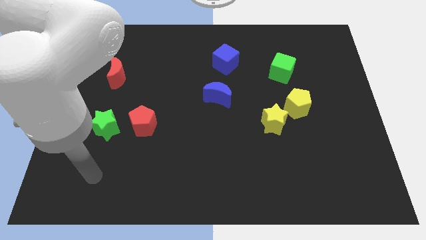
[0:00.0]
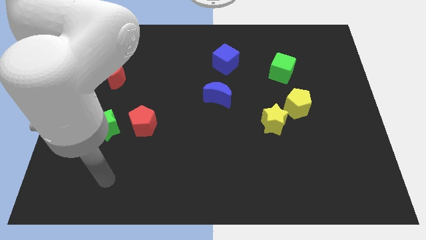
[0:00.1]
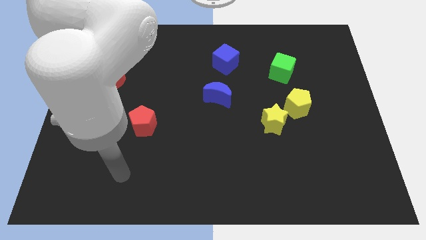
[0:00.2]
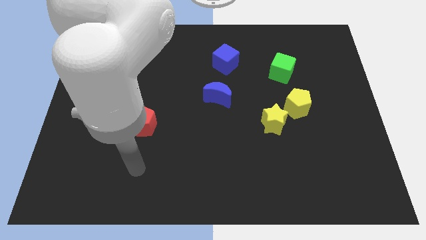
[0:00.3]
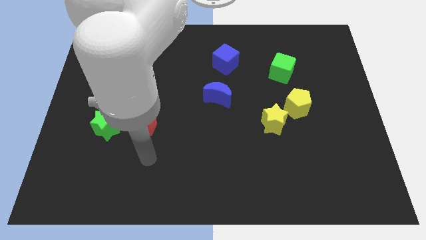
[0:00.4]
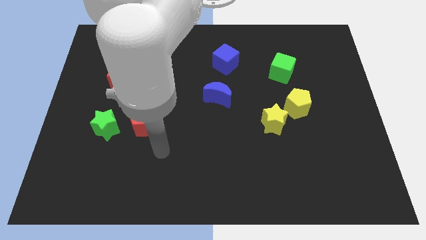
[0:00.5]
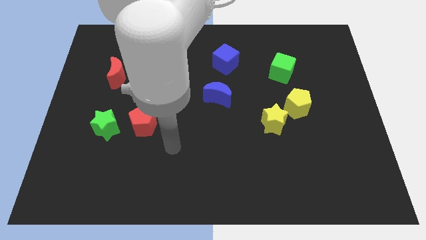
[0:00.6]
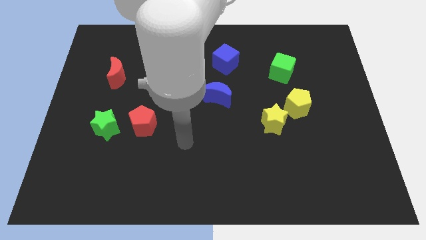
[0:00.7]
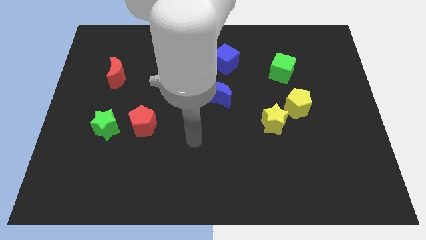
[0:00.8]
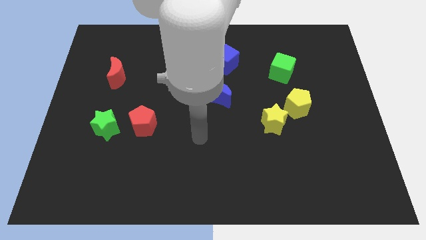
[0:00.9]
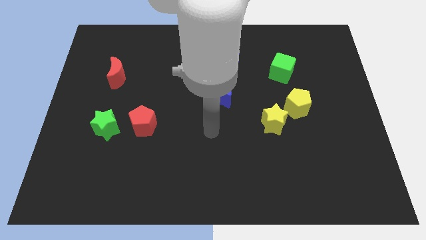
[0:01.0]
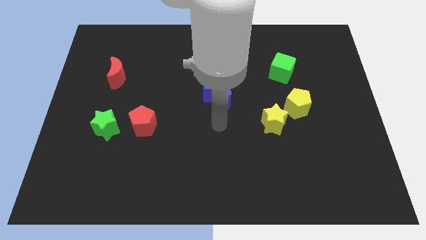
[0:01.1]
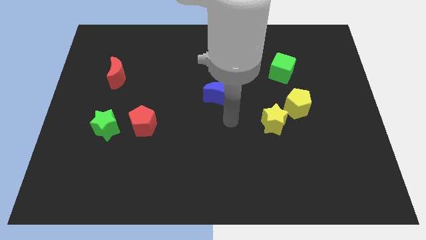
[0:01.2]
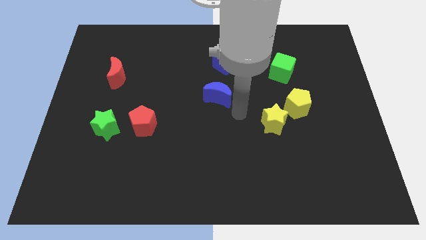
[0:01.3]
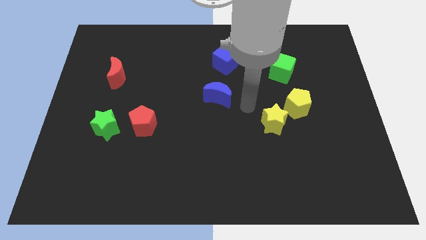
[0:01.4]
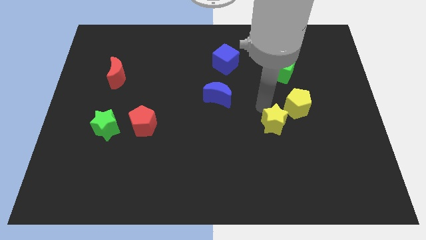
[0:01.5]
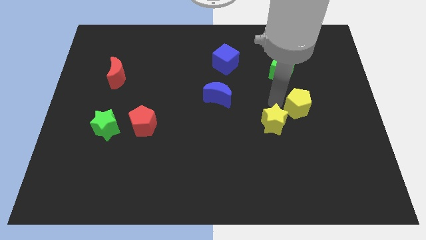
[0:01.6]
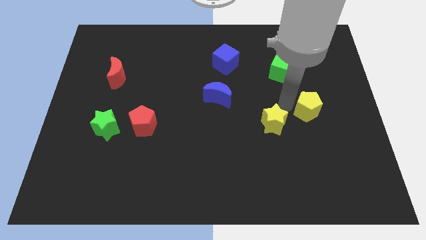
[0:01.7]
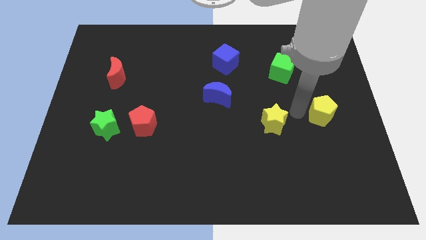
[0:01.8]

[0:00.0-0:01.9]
move the yellow star away from the yellow pentagon

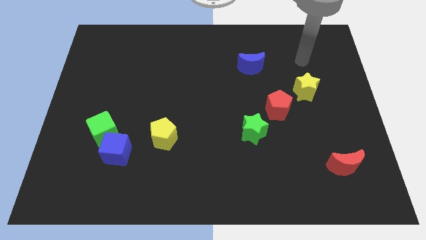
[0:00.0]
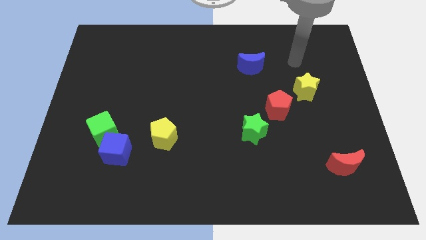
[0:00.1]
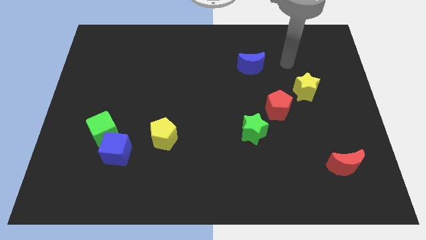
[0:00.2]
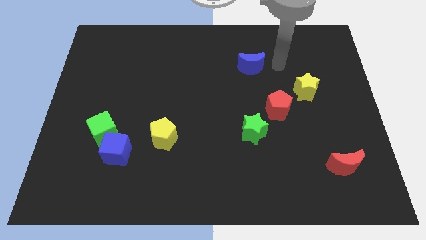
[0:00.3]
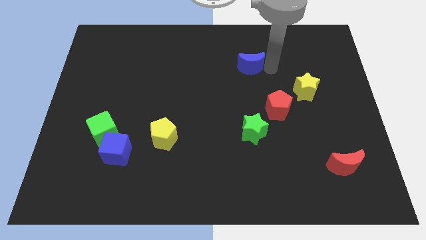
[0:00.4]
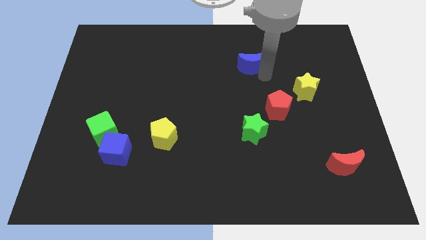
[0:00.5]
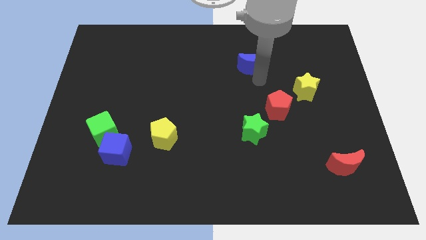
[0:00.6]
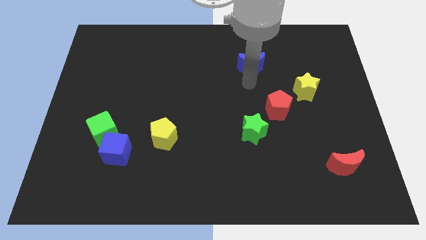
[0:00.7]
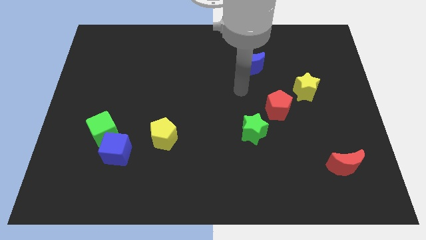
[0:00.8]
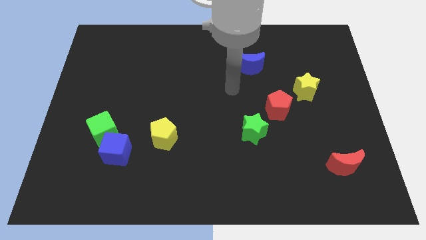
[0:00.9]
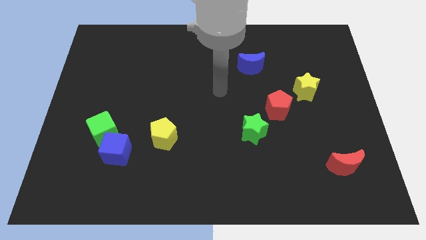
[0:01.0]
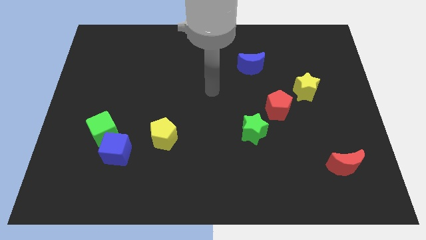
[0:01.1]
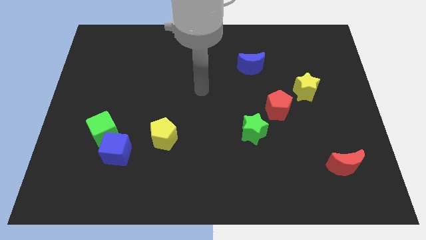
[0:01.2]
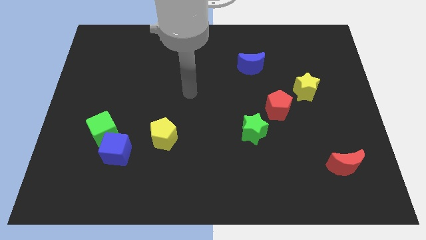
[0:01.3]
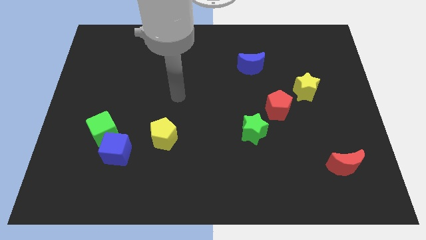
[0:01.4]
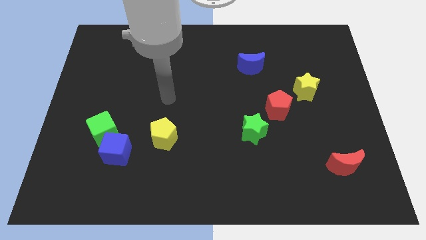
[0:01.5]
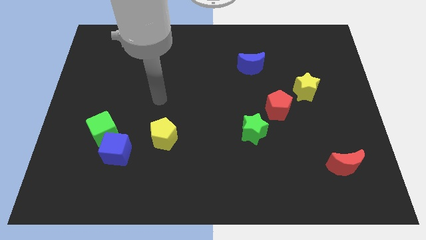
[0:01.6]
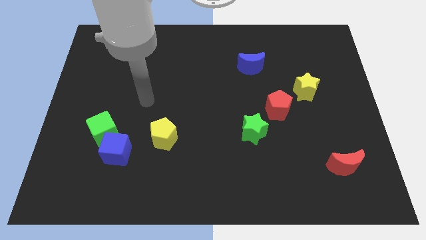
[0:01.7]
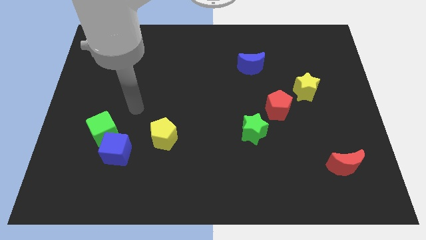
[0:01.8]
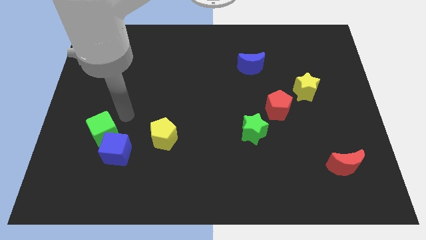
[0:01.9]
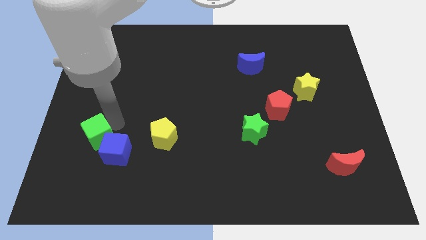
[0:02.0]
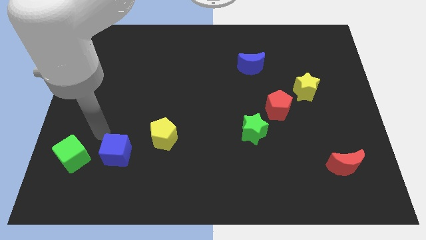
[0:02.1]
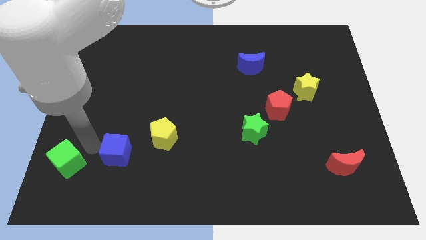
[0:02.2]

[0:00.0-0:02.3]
move the blue cube away from the green cube

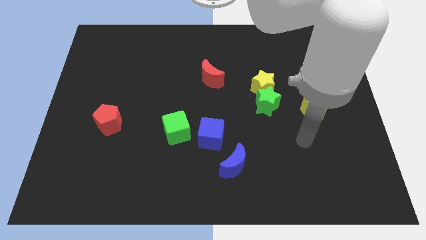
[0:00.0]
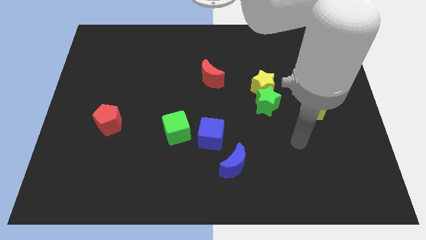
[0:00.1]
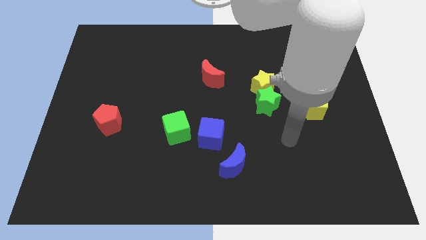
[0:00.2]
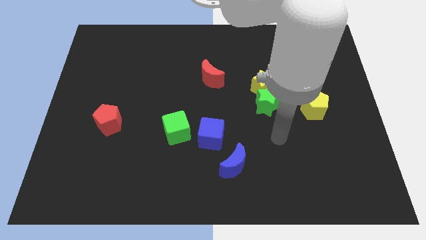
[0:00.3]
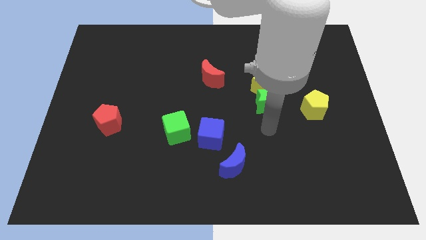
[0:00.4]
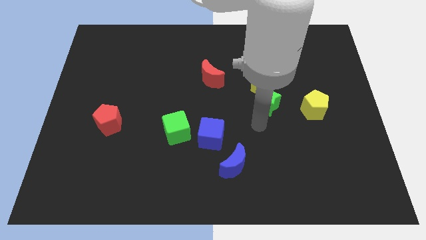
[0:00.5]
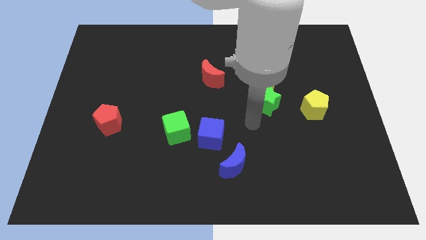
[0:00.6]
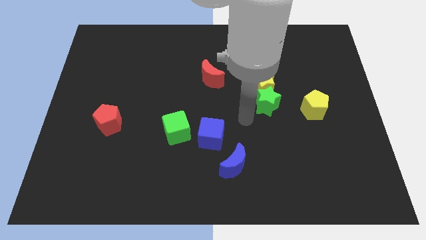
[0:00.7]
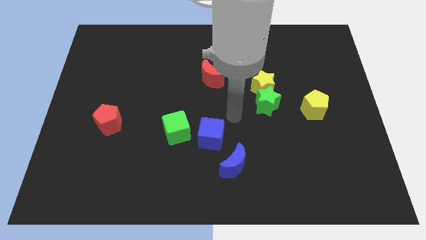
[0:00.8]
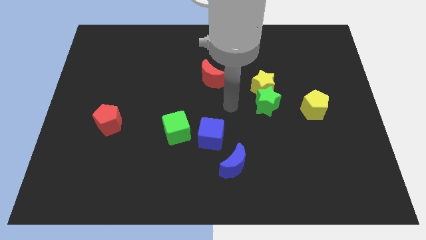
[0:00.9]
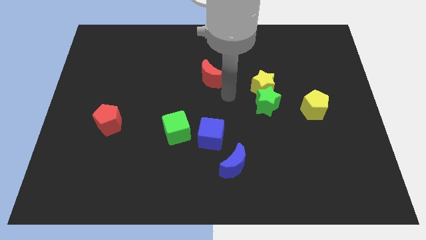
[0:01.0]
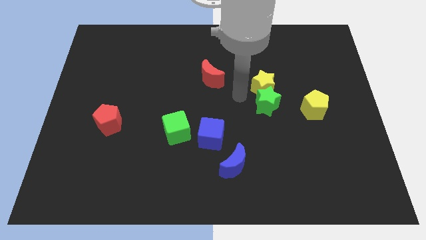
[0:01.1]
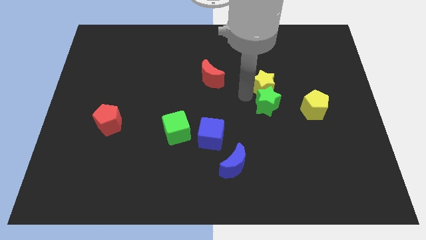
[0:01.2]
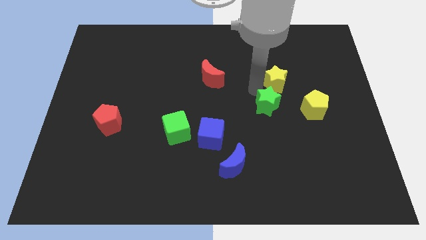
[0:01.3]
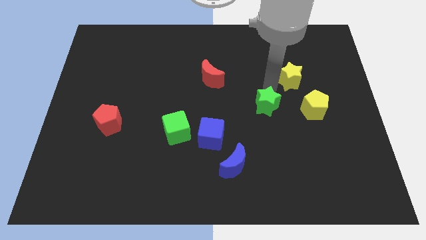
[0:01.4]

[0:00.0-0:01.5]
pull the green star apart from the yellow star

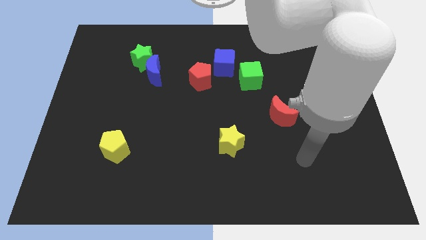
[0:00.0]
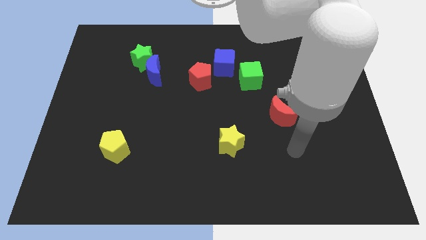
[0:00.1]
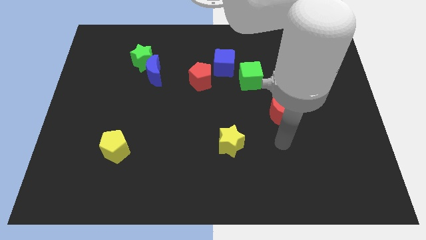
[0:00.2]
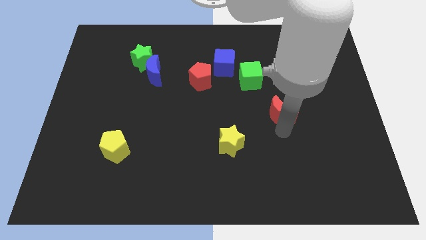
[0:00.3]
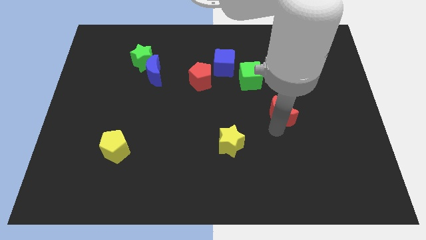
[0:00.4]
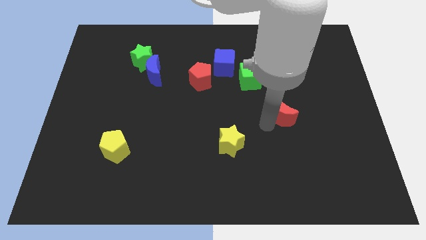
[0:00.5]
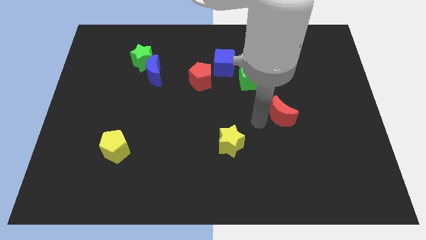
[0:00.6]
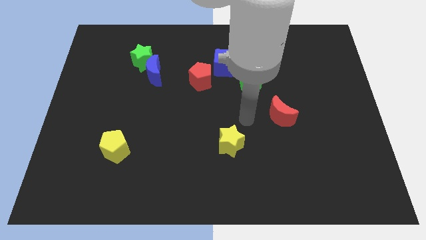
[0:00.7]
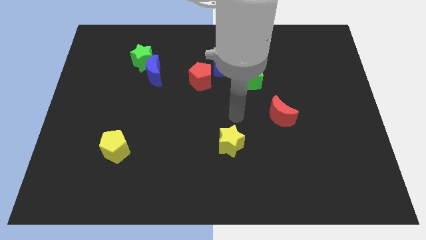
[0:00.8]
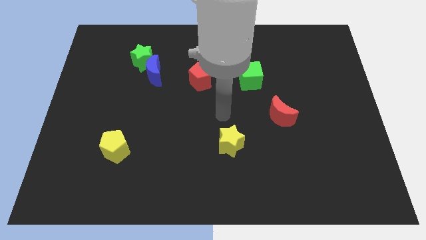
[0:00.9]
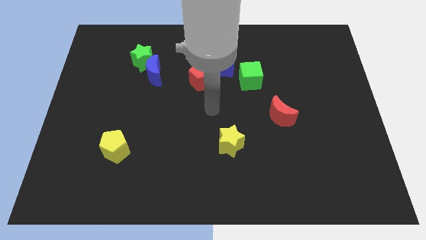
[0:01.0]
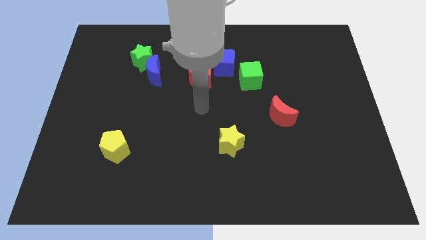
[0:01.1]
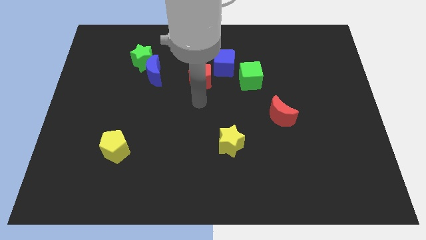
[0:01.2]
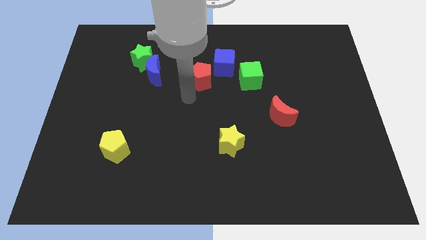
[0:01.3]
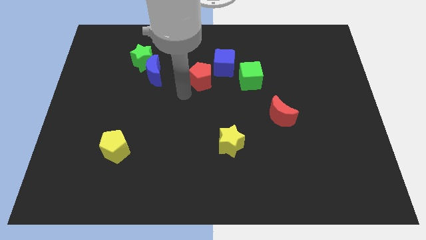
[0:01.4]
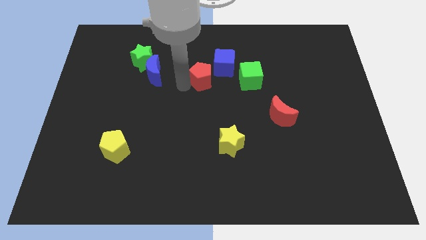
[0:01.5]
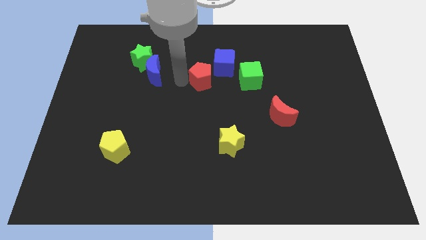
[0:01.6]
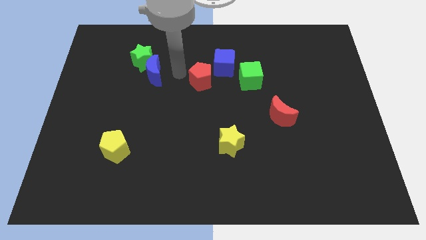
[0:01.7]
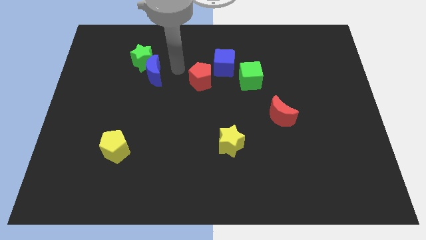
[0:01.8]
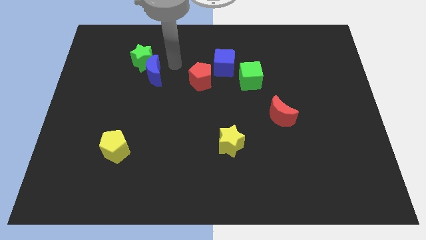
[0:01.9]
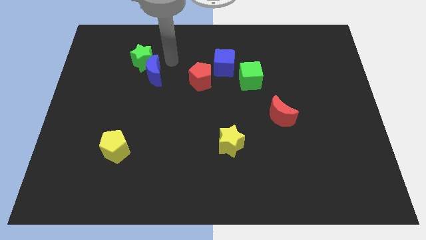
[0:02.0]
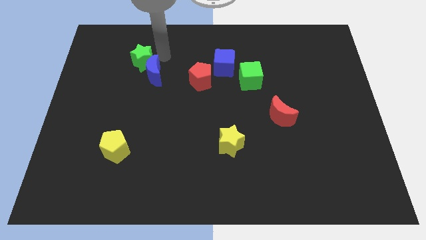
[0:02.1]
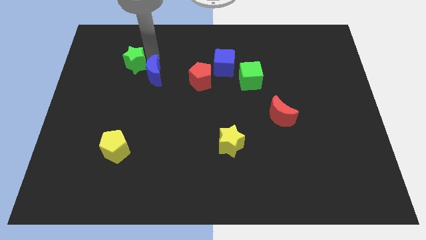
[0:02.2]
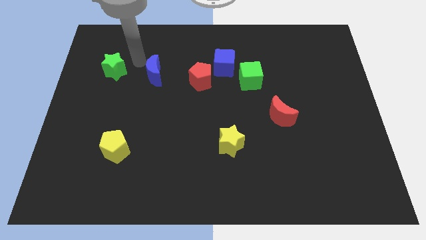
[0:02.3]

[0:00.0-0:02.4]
move the blue moon away from the green star

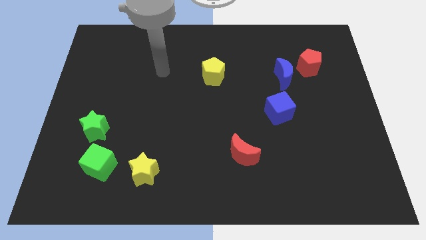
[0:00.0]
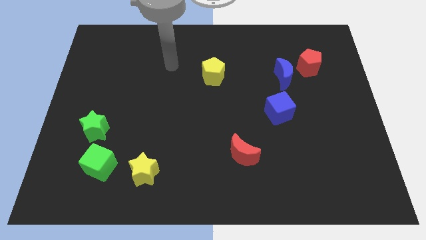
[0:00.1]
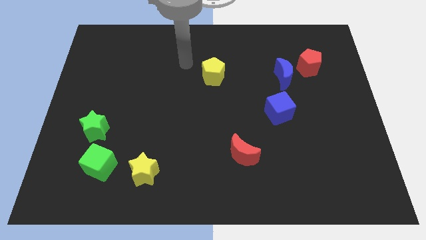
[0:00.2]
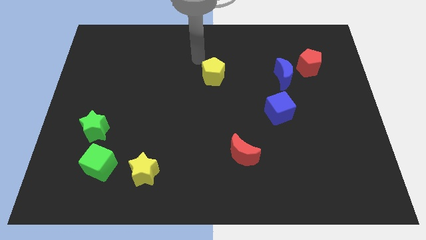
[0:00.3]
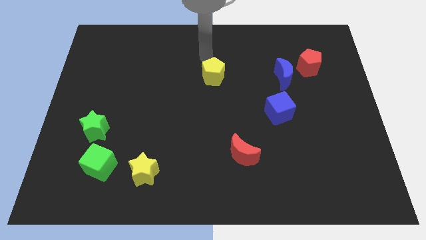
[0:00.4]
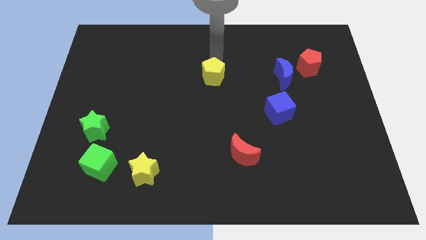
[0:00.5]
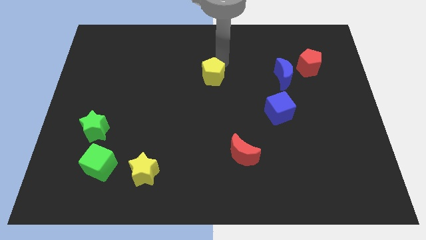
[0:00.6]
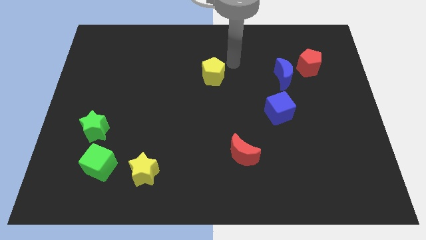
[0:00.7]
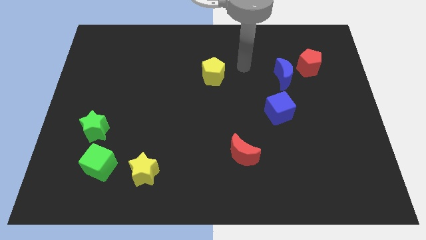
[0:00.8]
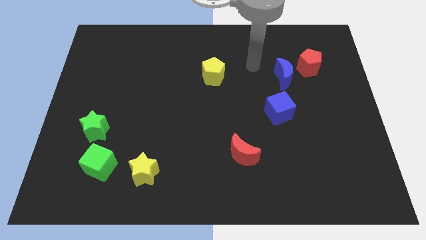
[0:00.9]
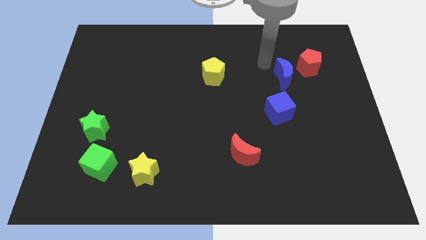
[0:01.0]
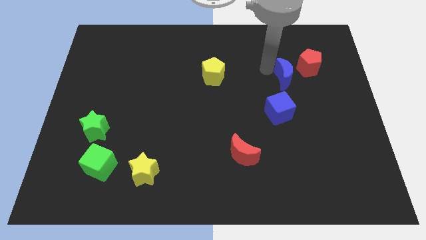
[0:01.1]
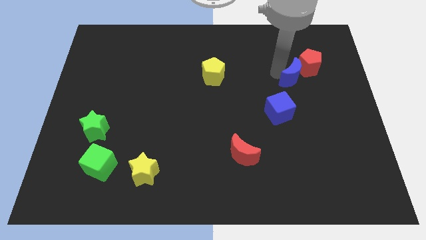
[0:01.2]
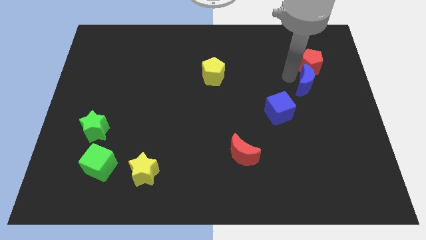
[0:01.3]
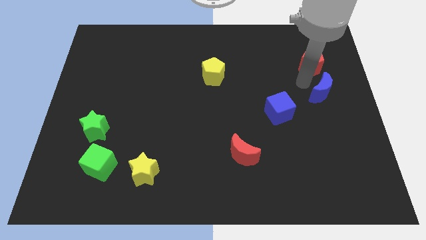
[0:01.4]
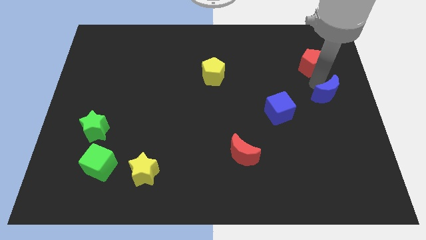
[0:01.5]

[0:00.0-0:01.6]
pull the red pentagon apart from the blue moon
